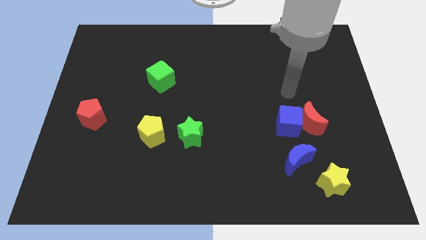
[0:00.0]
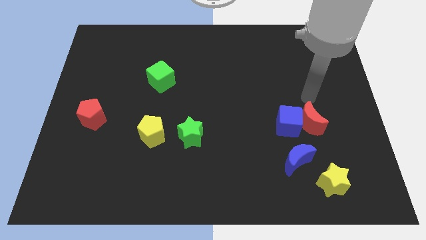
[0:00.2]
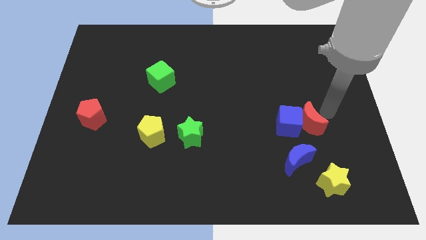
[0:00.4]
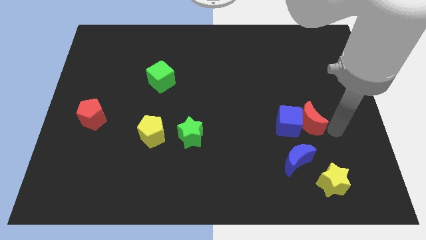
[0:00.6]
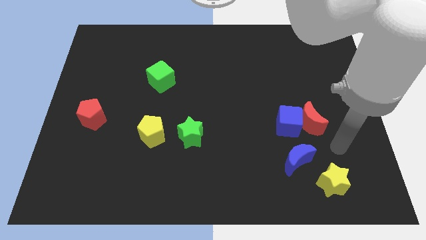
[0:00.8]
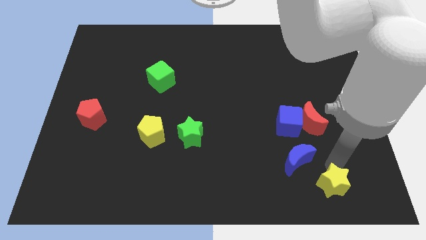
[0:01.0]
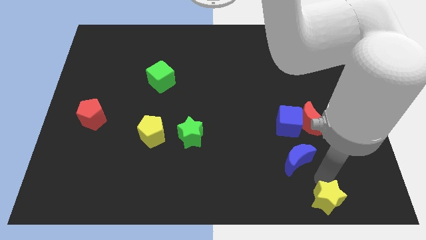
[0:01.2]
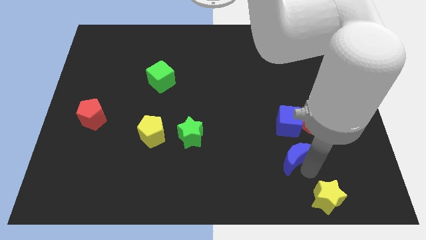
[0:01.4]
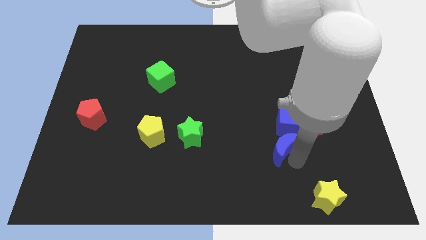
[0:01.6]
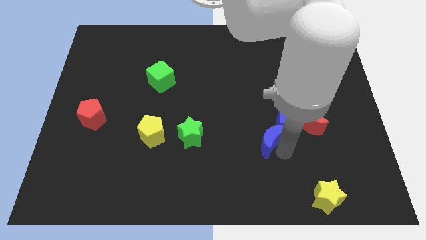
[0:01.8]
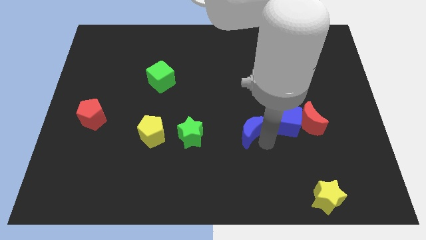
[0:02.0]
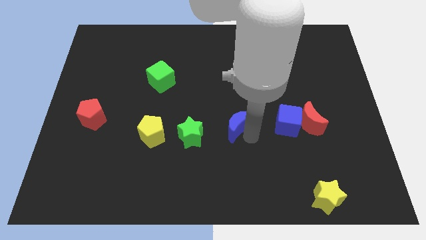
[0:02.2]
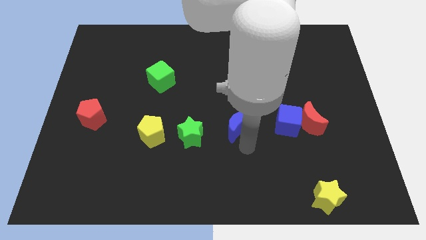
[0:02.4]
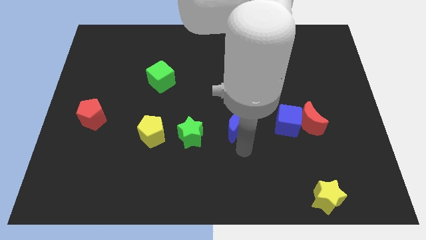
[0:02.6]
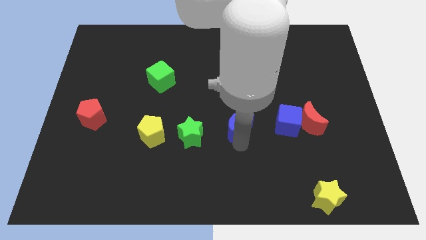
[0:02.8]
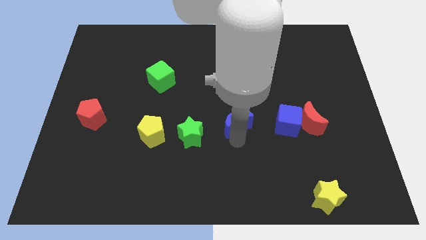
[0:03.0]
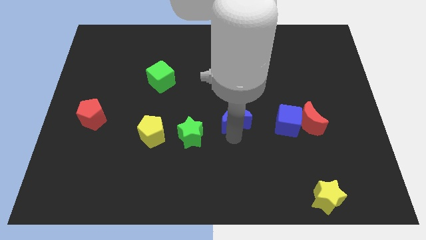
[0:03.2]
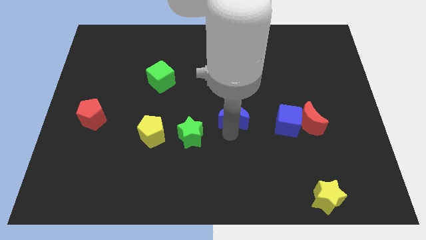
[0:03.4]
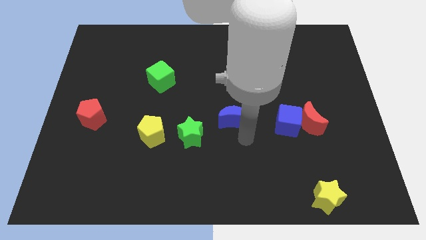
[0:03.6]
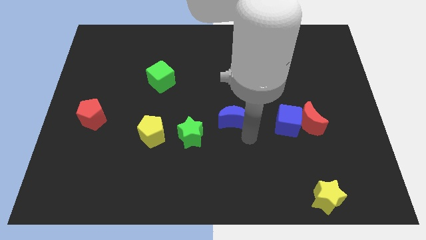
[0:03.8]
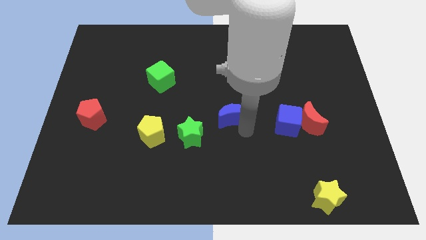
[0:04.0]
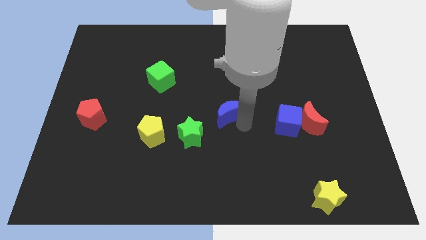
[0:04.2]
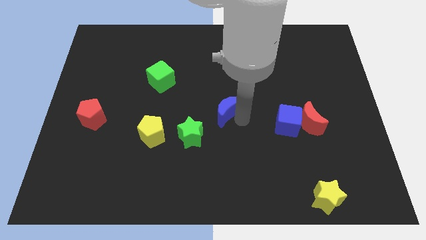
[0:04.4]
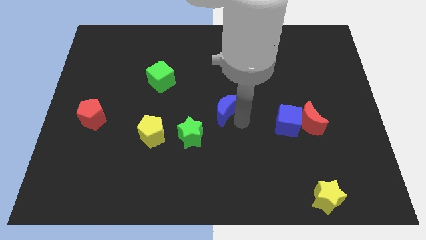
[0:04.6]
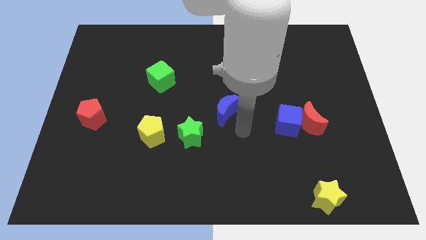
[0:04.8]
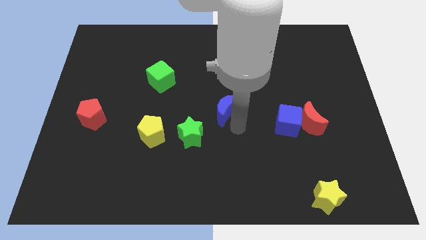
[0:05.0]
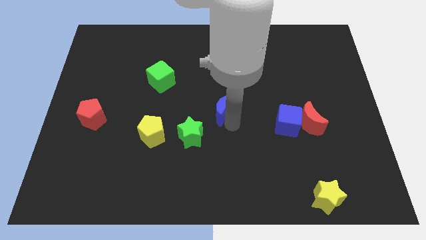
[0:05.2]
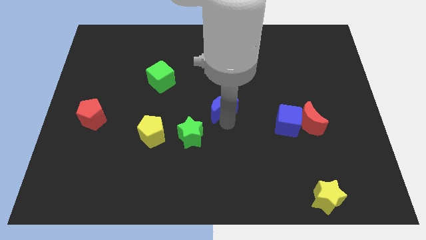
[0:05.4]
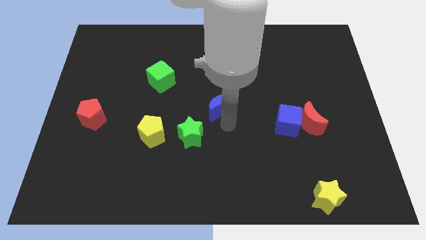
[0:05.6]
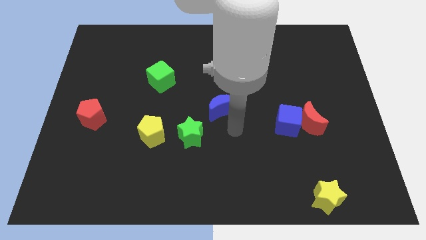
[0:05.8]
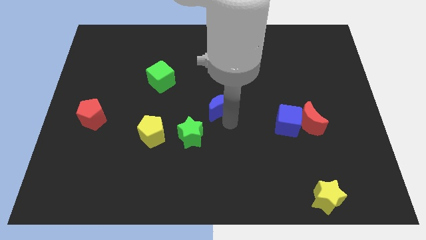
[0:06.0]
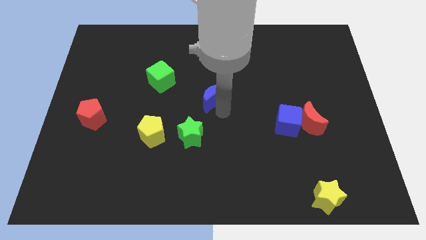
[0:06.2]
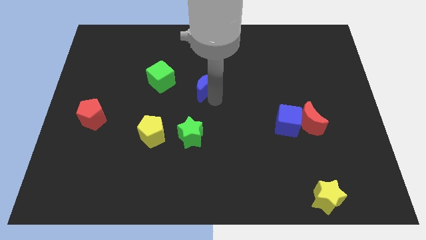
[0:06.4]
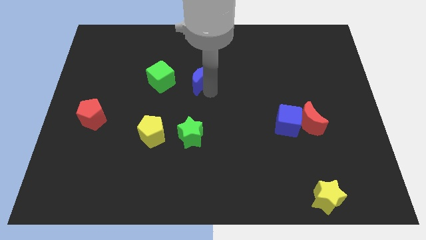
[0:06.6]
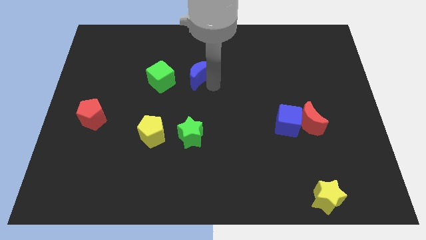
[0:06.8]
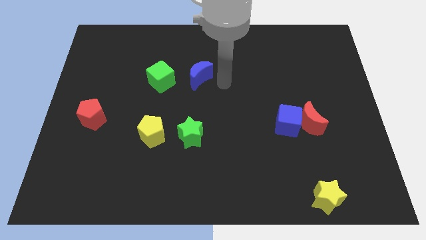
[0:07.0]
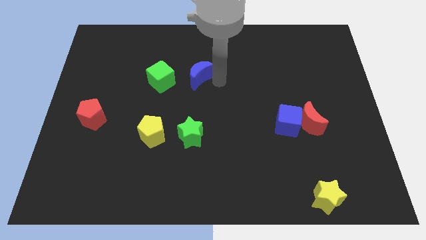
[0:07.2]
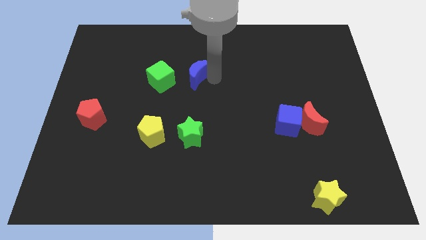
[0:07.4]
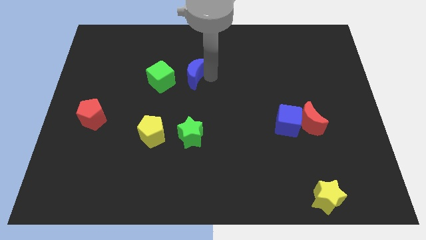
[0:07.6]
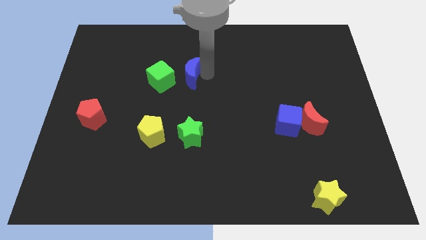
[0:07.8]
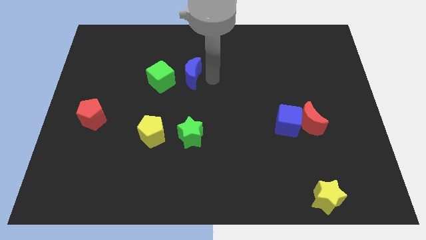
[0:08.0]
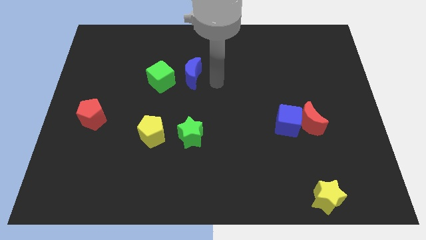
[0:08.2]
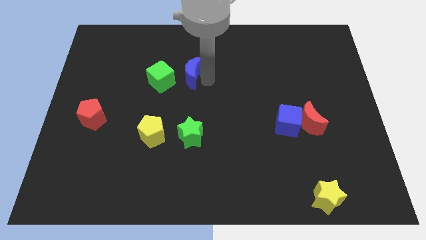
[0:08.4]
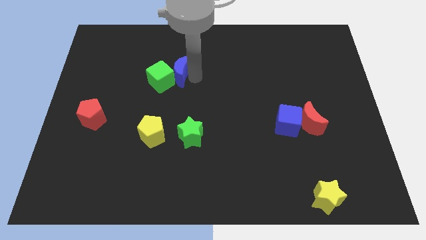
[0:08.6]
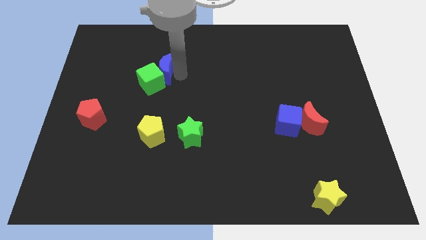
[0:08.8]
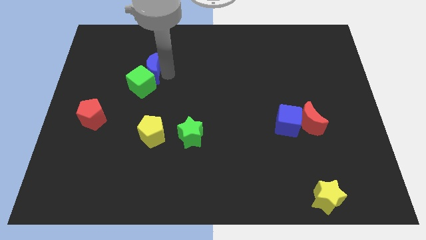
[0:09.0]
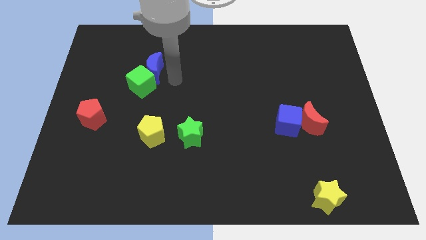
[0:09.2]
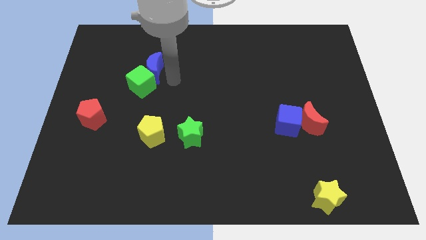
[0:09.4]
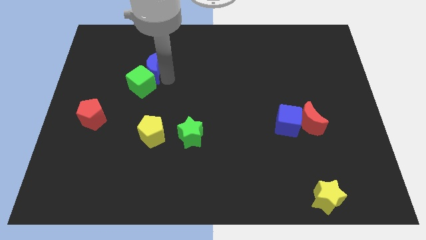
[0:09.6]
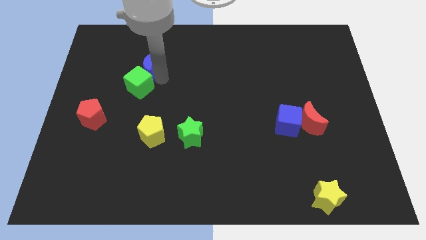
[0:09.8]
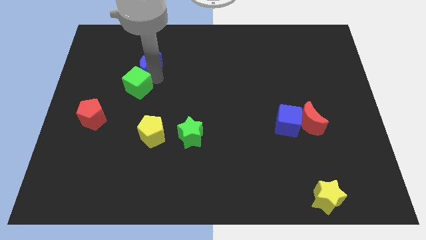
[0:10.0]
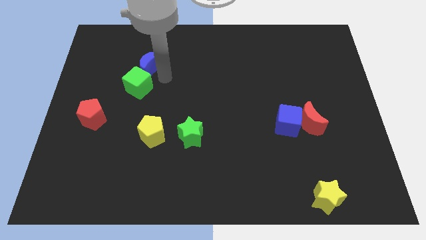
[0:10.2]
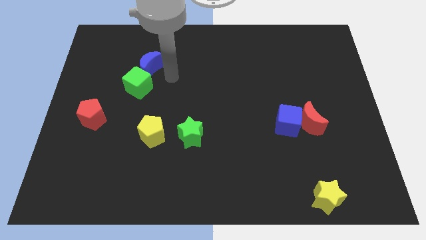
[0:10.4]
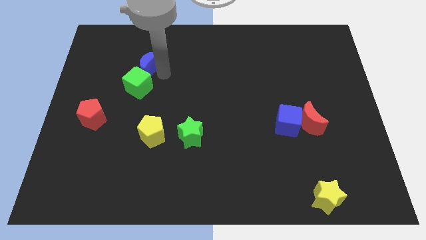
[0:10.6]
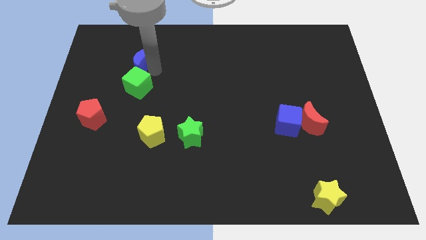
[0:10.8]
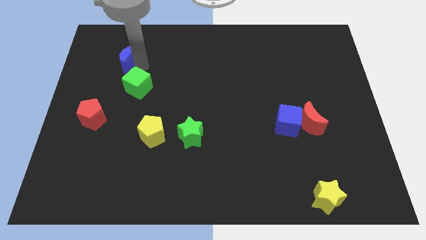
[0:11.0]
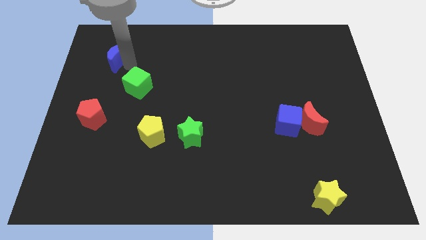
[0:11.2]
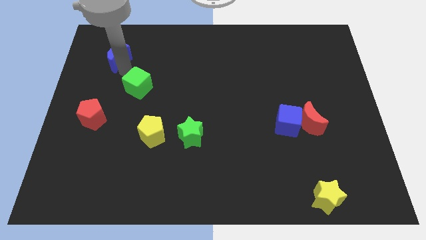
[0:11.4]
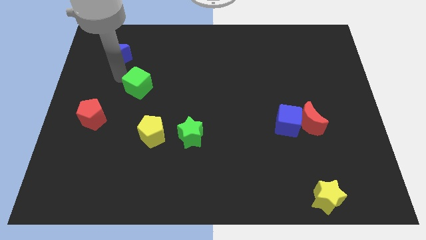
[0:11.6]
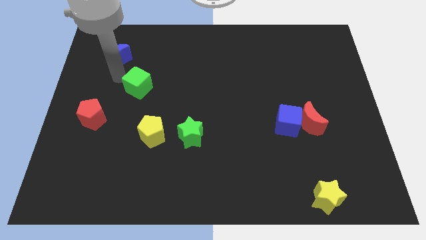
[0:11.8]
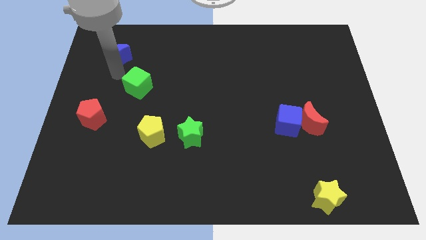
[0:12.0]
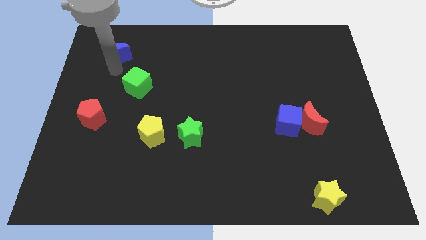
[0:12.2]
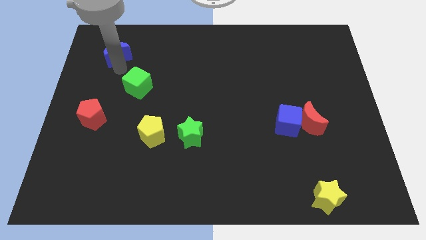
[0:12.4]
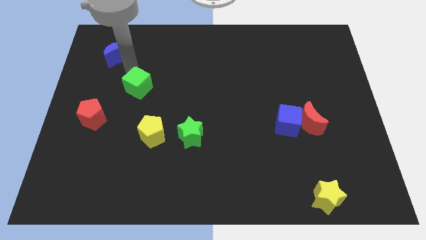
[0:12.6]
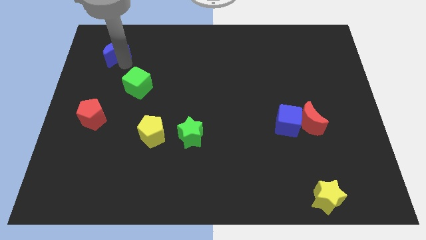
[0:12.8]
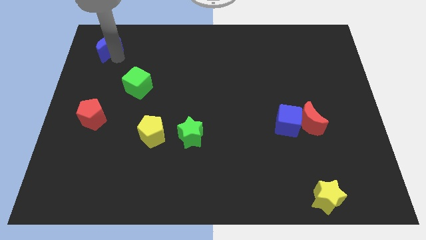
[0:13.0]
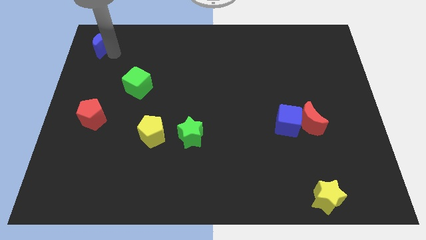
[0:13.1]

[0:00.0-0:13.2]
push the blue moon to the top left
